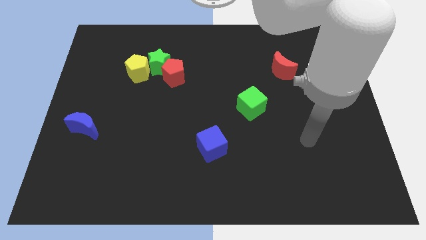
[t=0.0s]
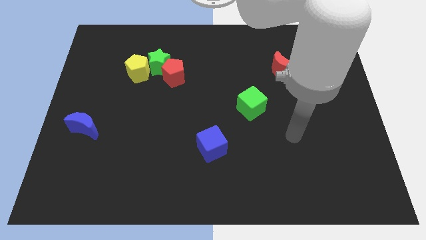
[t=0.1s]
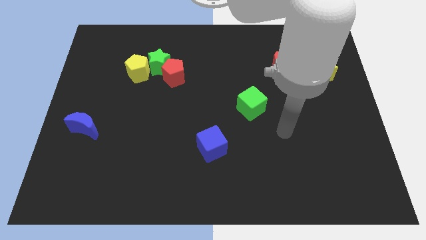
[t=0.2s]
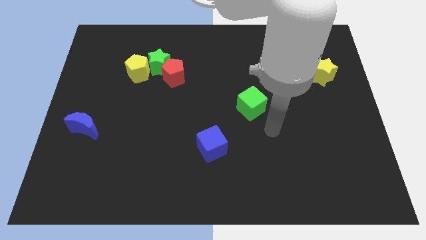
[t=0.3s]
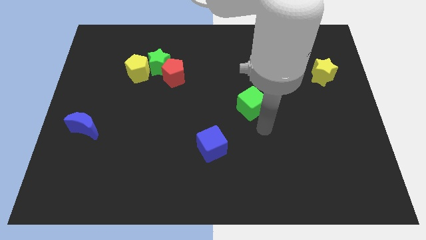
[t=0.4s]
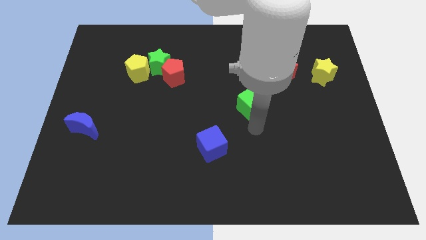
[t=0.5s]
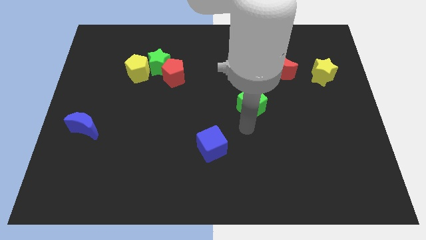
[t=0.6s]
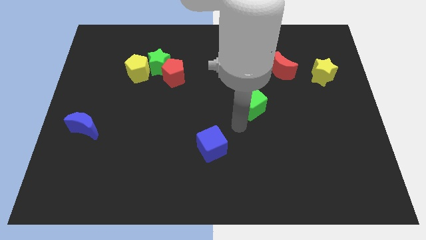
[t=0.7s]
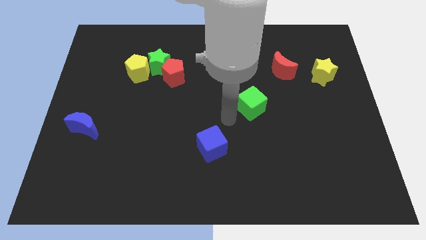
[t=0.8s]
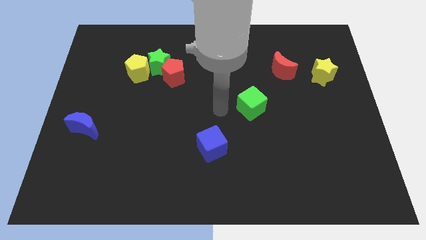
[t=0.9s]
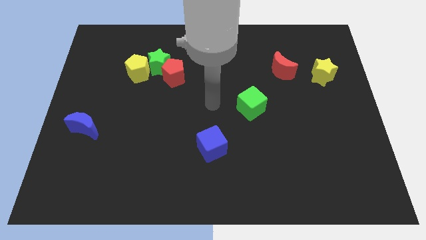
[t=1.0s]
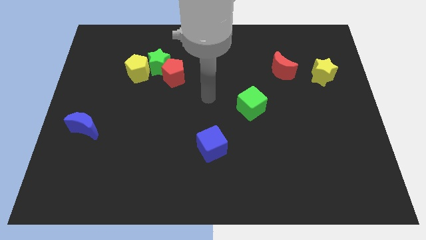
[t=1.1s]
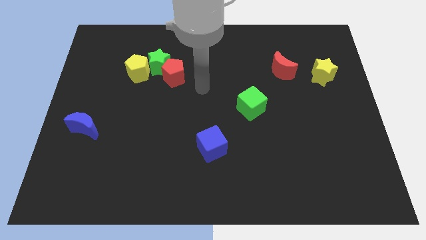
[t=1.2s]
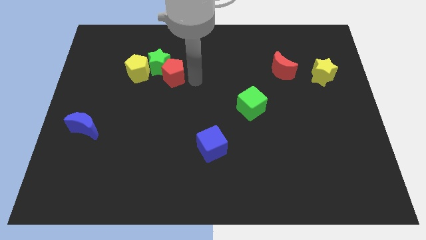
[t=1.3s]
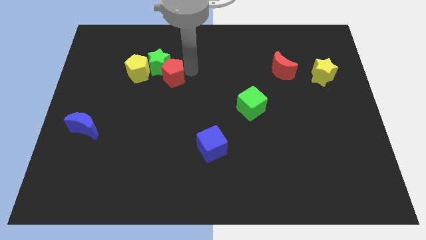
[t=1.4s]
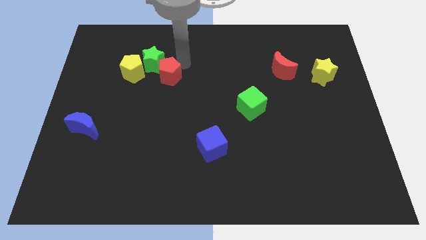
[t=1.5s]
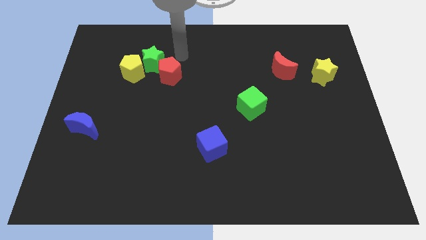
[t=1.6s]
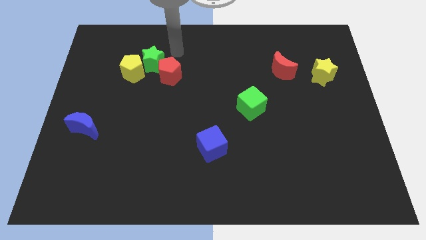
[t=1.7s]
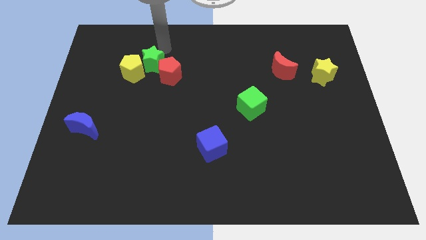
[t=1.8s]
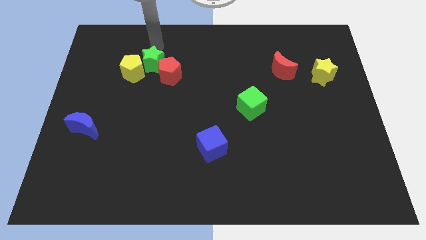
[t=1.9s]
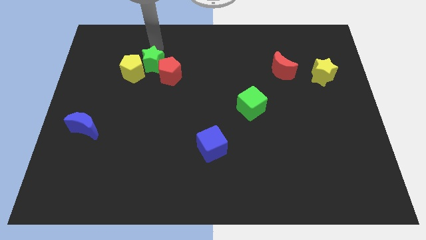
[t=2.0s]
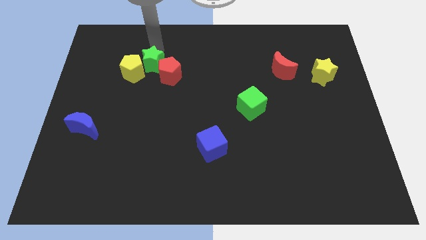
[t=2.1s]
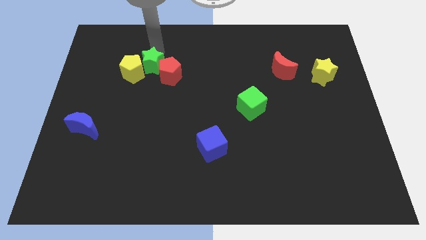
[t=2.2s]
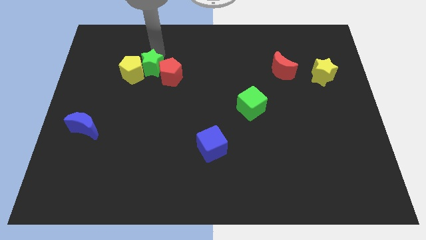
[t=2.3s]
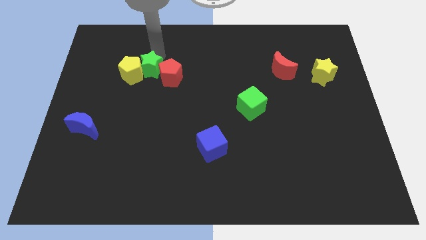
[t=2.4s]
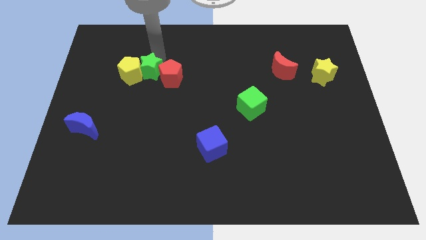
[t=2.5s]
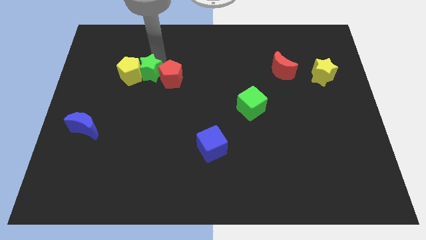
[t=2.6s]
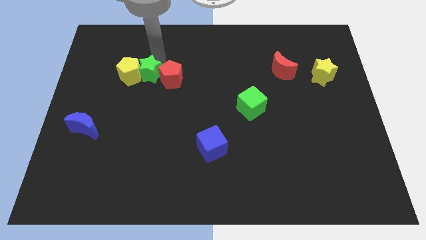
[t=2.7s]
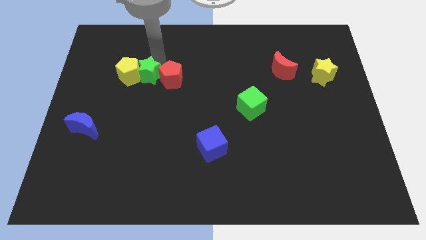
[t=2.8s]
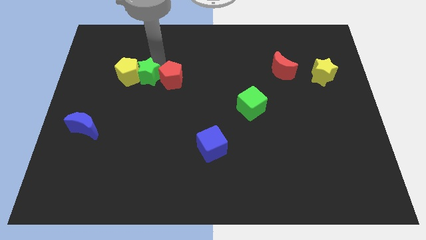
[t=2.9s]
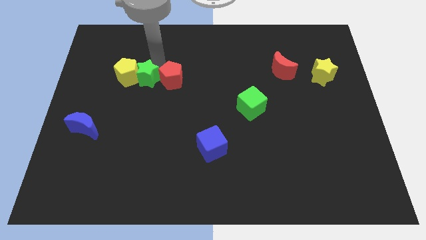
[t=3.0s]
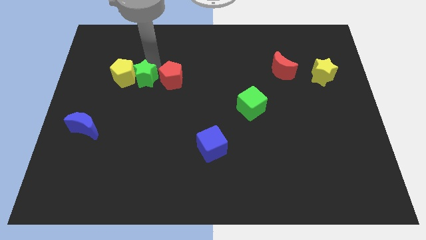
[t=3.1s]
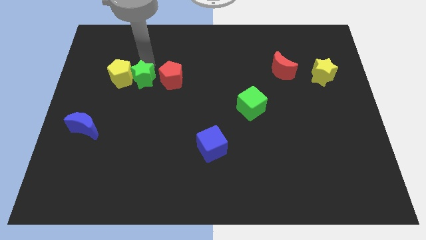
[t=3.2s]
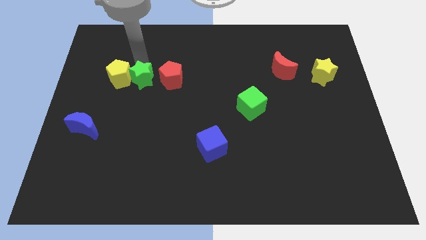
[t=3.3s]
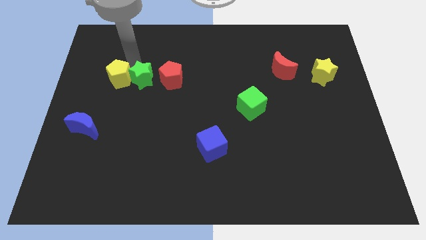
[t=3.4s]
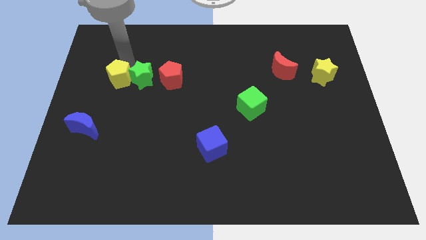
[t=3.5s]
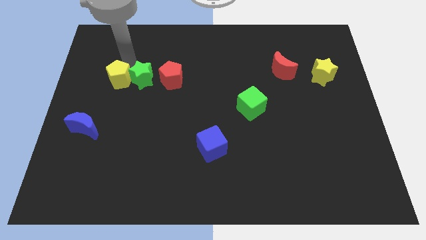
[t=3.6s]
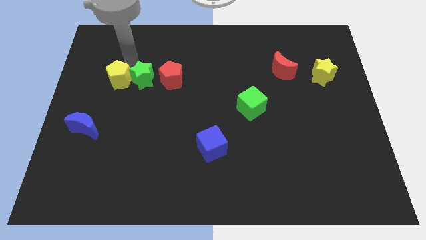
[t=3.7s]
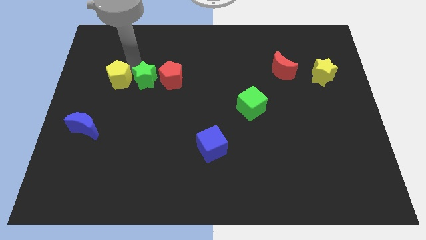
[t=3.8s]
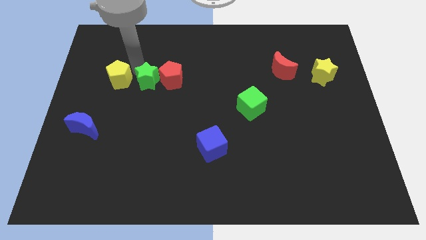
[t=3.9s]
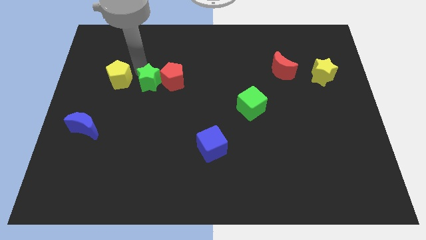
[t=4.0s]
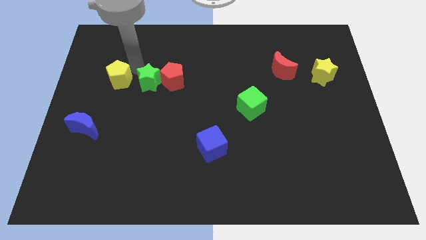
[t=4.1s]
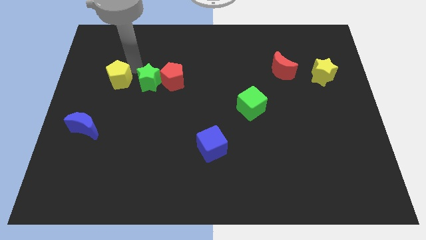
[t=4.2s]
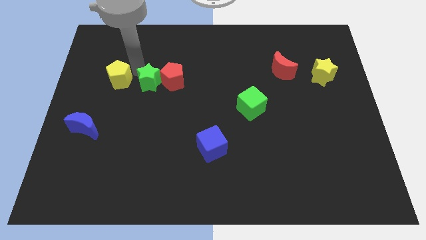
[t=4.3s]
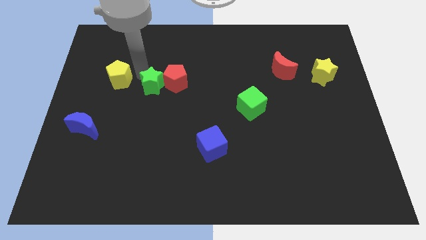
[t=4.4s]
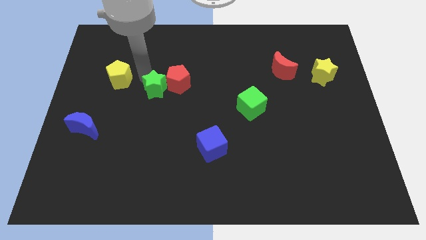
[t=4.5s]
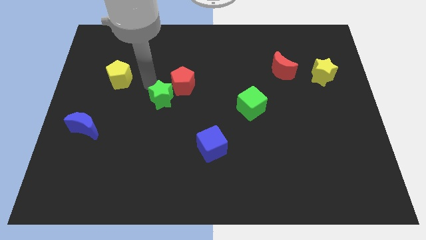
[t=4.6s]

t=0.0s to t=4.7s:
slightly move the green star downwards and then right

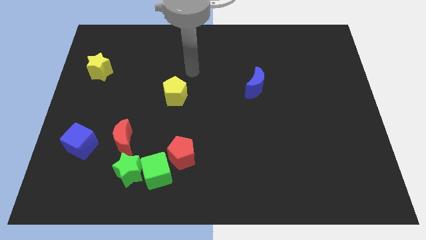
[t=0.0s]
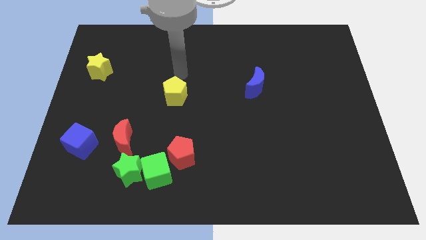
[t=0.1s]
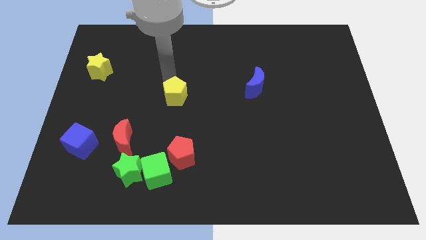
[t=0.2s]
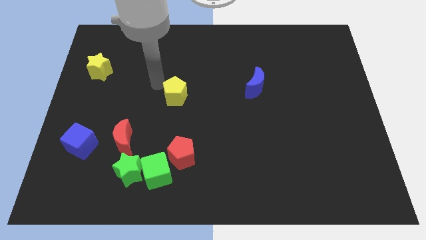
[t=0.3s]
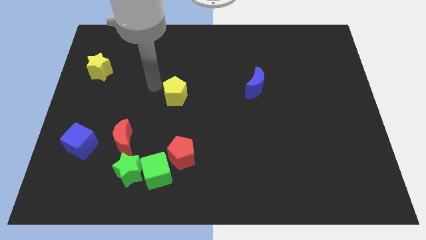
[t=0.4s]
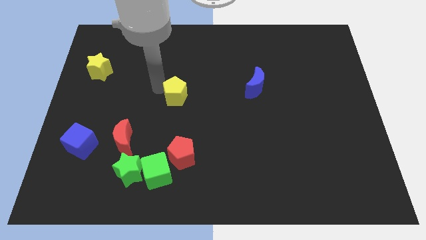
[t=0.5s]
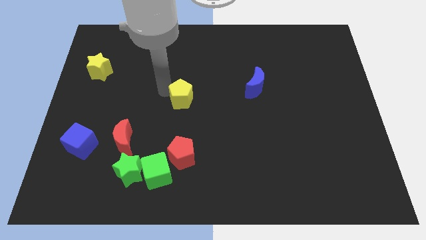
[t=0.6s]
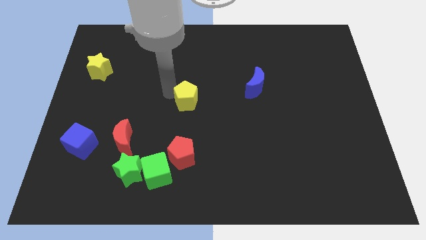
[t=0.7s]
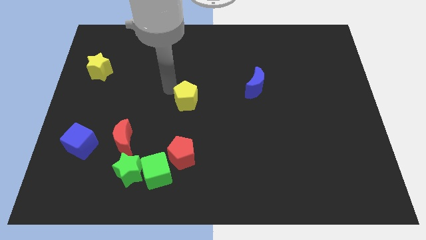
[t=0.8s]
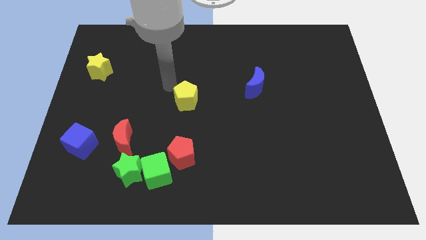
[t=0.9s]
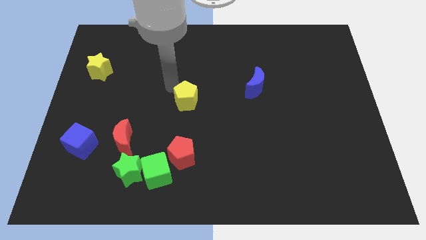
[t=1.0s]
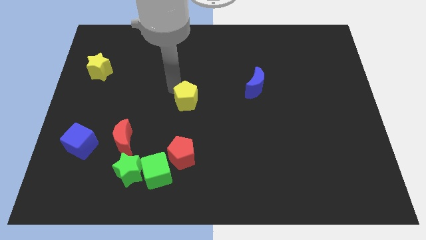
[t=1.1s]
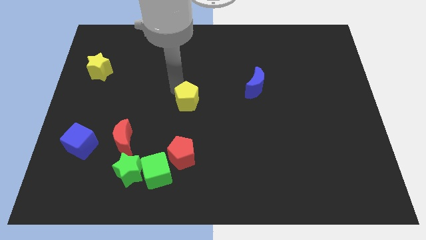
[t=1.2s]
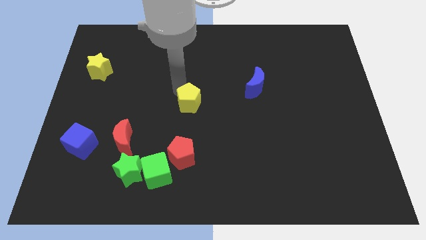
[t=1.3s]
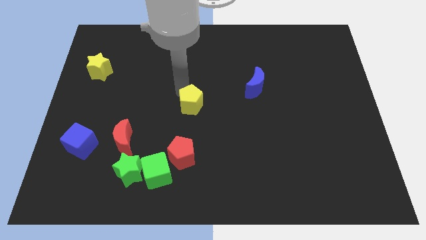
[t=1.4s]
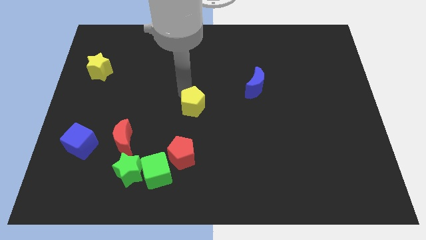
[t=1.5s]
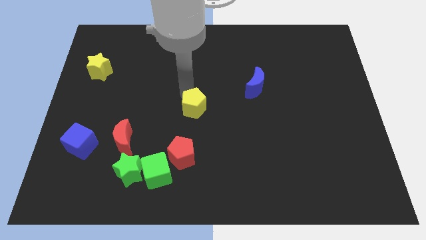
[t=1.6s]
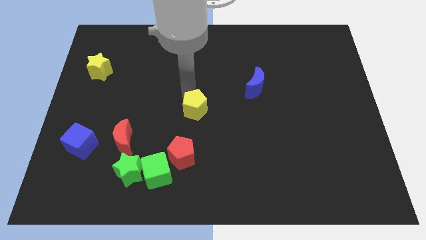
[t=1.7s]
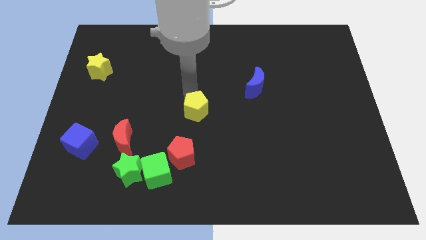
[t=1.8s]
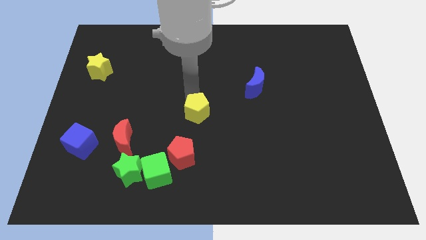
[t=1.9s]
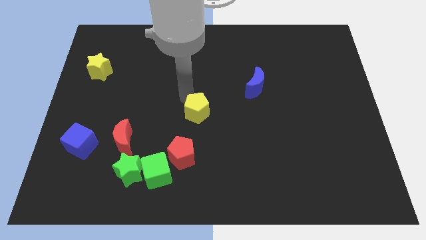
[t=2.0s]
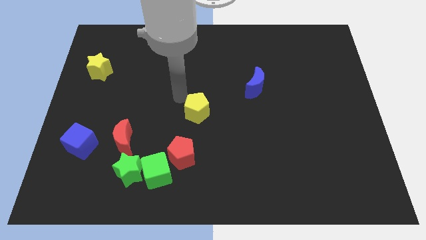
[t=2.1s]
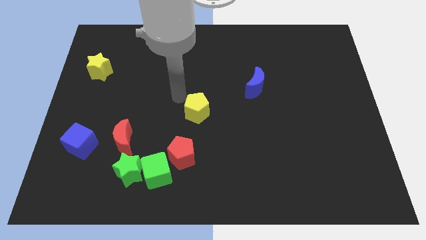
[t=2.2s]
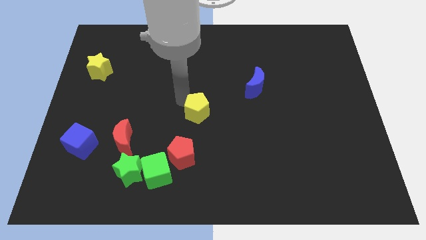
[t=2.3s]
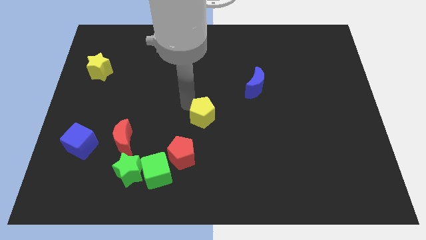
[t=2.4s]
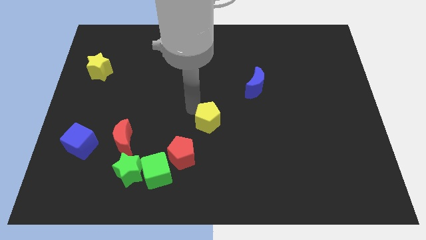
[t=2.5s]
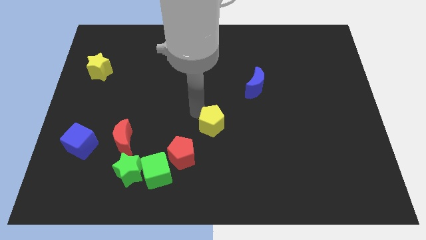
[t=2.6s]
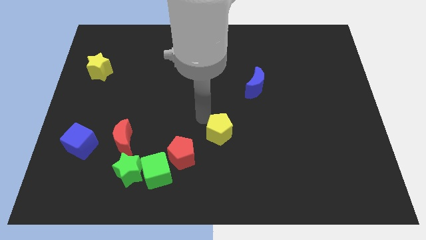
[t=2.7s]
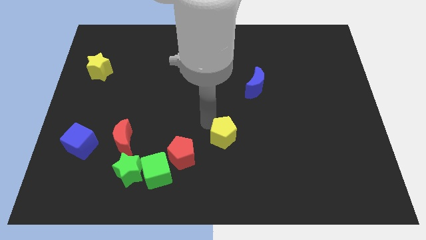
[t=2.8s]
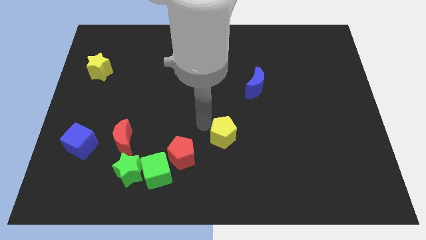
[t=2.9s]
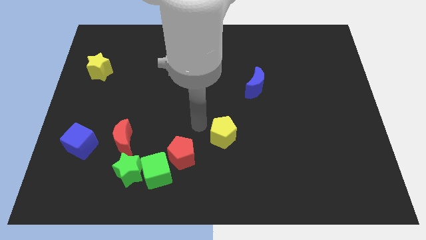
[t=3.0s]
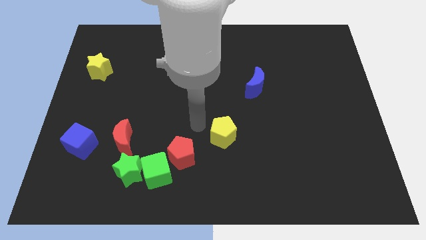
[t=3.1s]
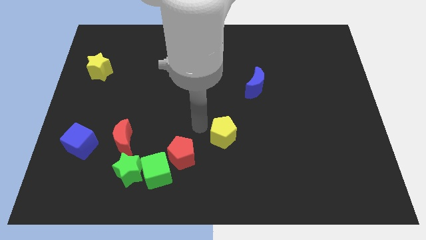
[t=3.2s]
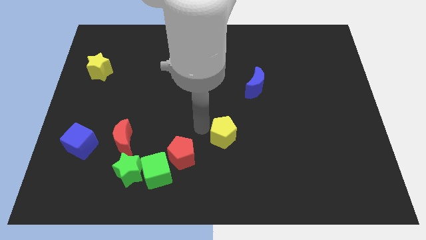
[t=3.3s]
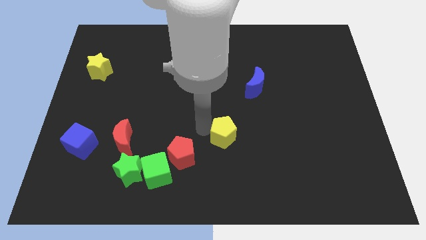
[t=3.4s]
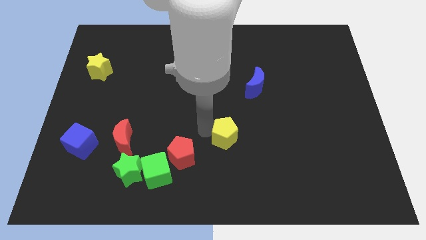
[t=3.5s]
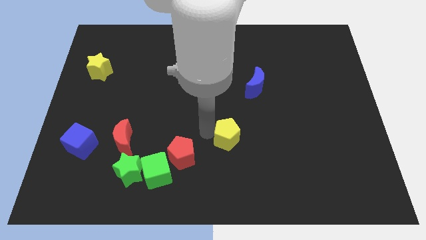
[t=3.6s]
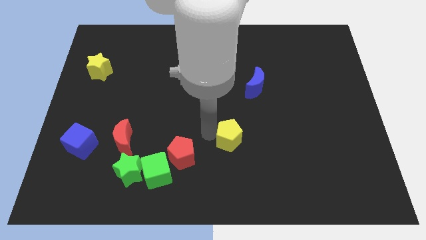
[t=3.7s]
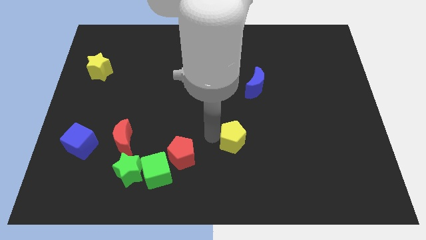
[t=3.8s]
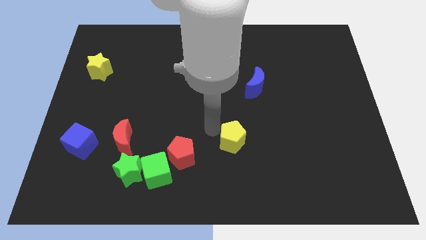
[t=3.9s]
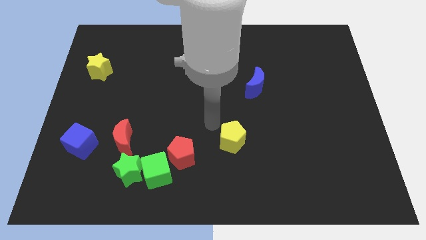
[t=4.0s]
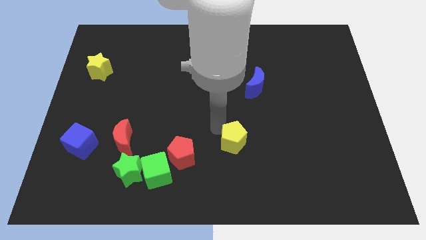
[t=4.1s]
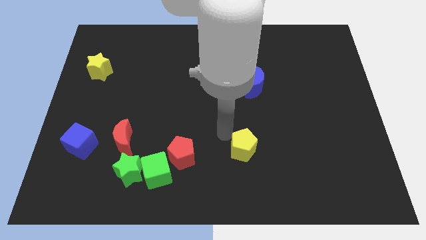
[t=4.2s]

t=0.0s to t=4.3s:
slide the yellow pentagon downwards and then to the right
